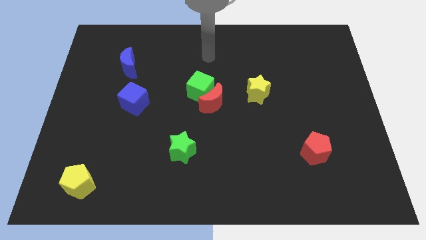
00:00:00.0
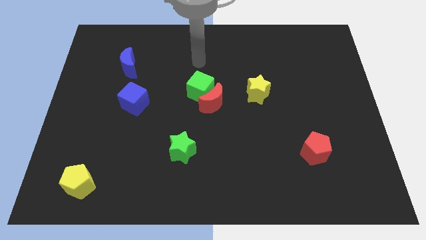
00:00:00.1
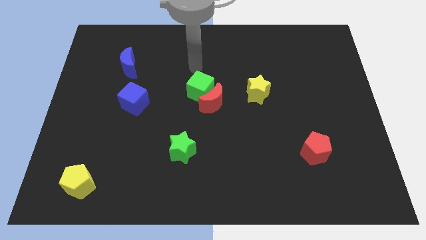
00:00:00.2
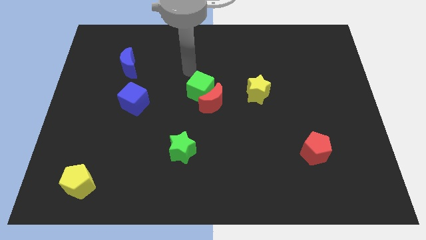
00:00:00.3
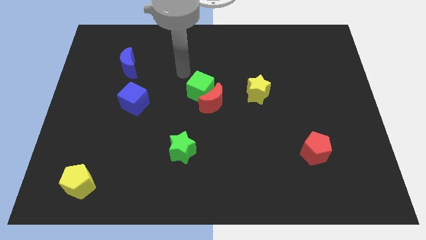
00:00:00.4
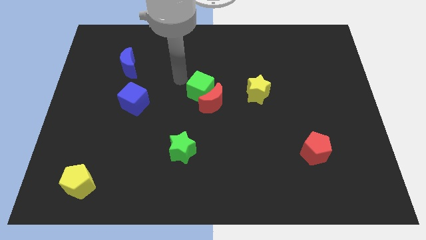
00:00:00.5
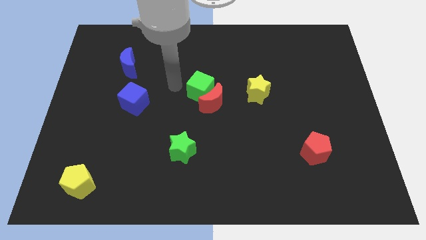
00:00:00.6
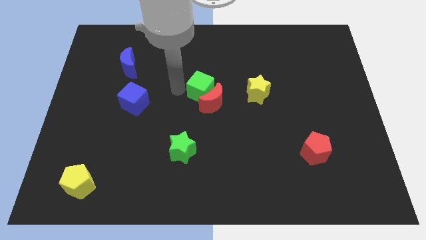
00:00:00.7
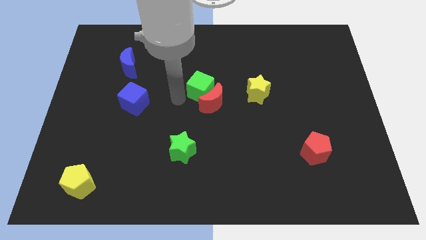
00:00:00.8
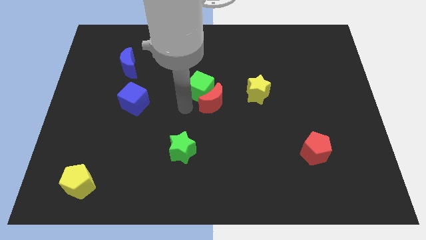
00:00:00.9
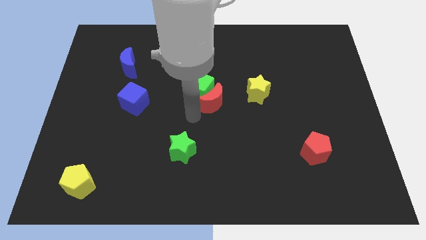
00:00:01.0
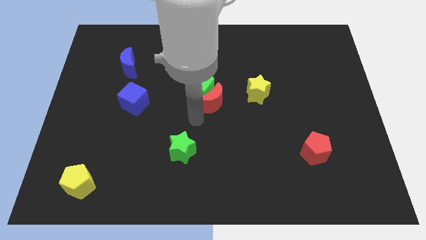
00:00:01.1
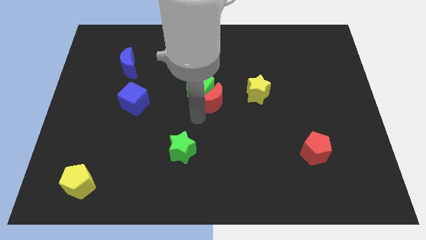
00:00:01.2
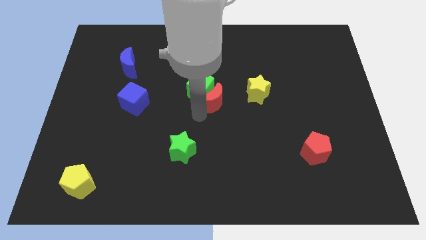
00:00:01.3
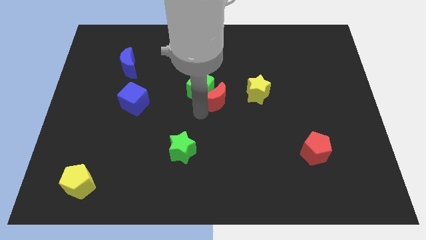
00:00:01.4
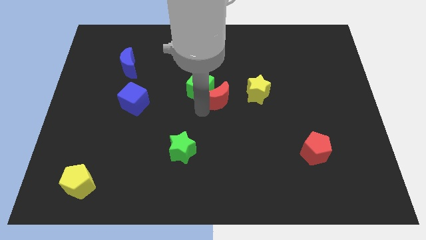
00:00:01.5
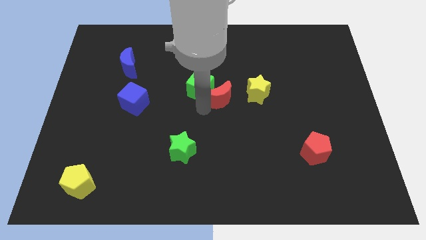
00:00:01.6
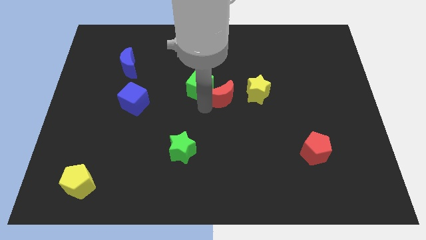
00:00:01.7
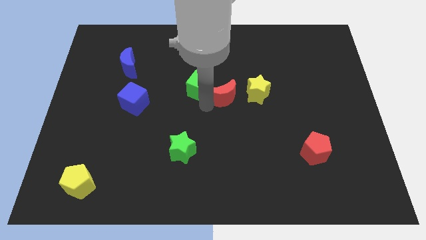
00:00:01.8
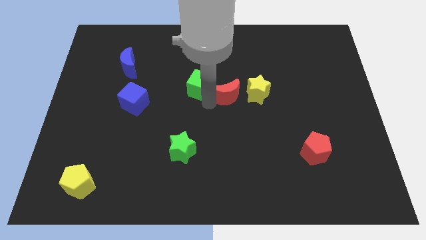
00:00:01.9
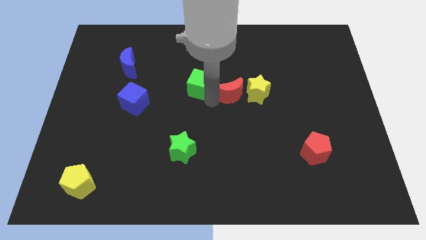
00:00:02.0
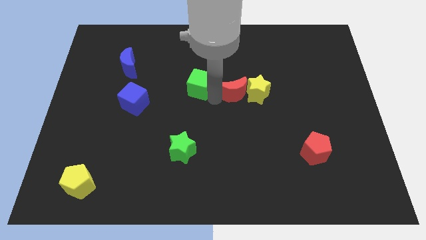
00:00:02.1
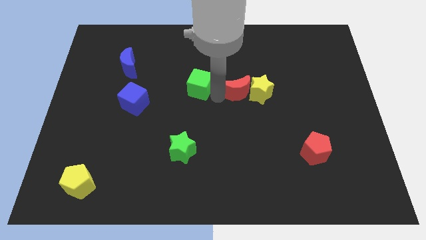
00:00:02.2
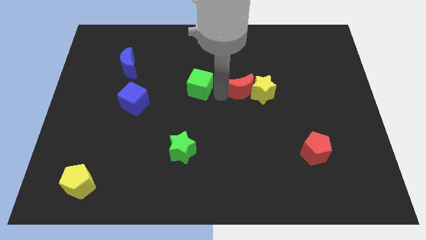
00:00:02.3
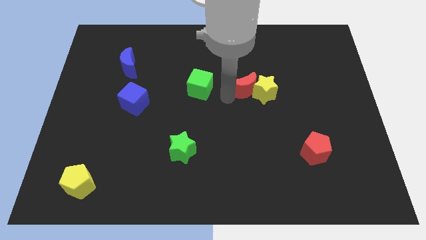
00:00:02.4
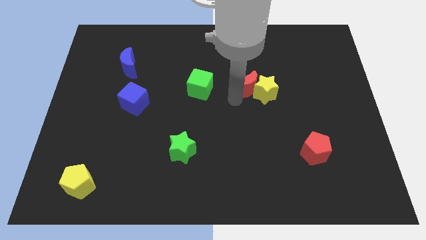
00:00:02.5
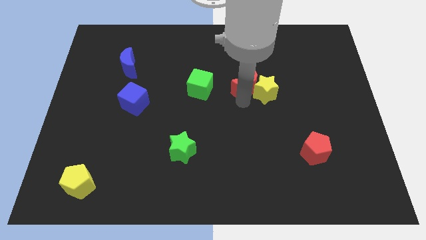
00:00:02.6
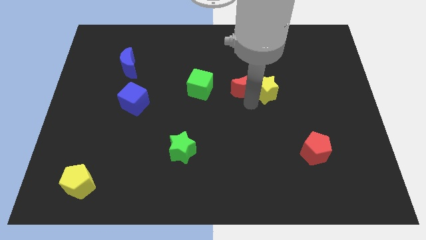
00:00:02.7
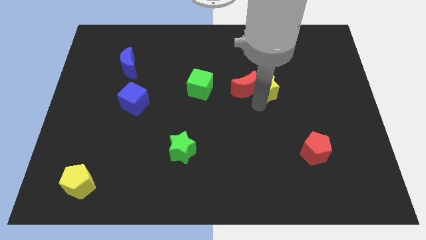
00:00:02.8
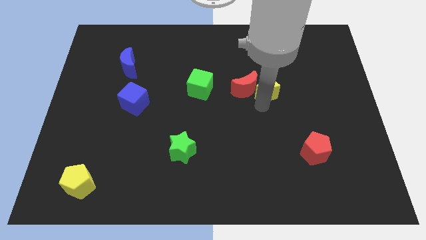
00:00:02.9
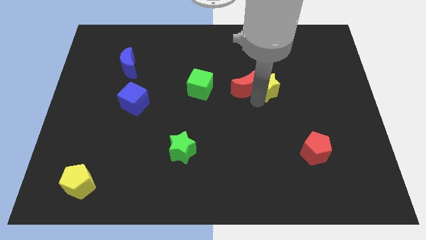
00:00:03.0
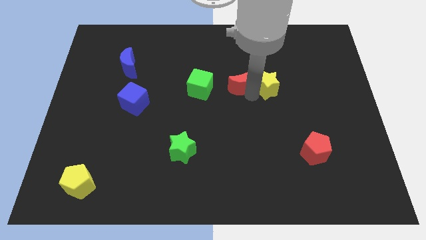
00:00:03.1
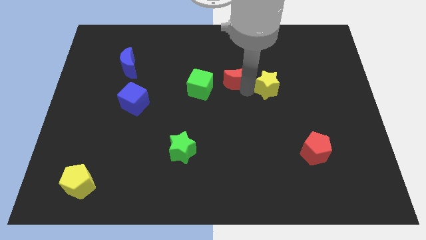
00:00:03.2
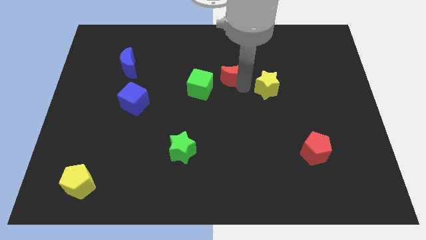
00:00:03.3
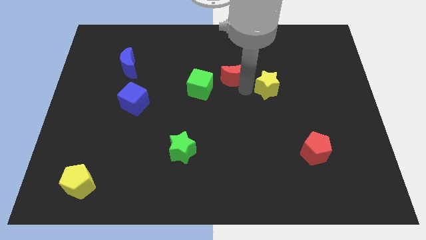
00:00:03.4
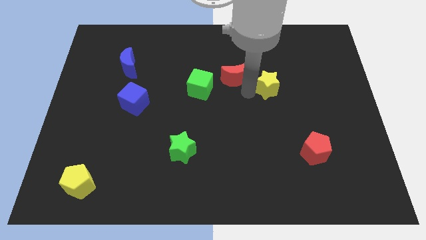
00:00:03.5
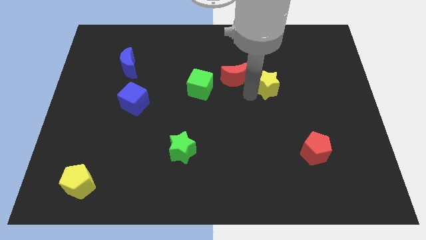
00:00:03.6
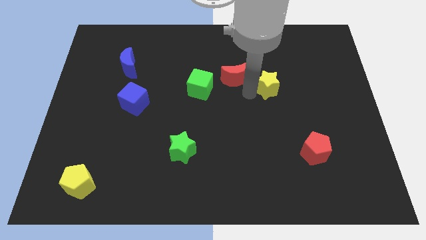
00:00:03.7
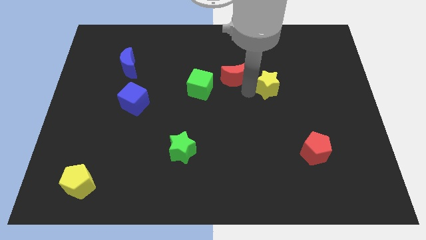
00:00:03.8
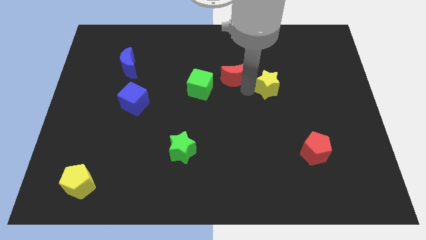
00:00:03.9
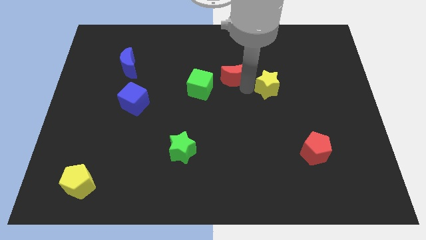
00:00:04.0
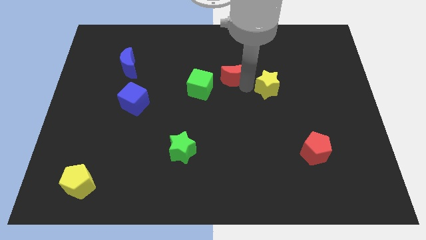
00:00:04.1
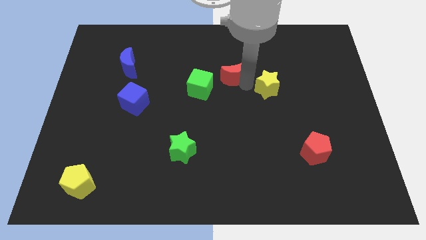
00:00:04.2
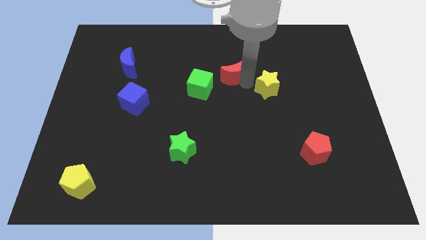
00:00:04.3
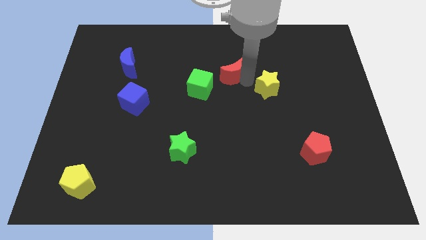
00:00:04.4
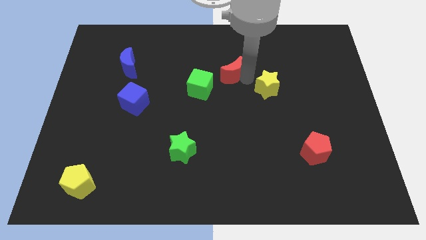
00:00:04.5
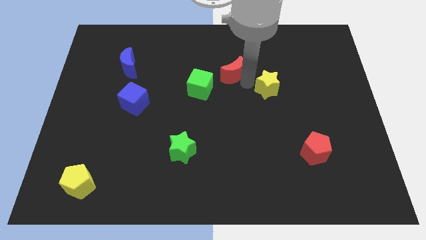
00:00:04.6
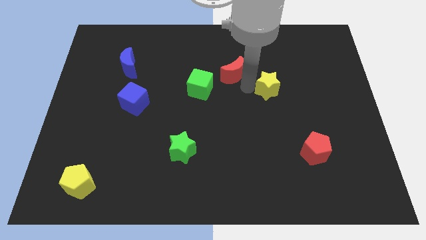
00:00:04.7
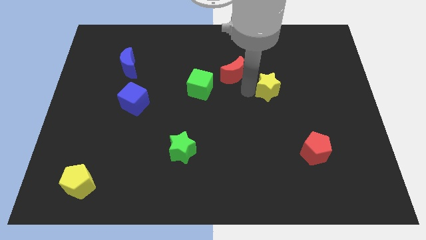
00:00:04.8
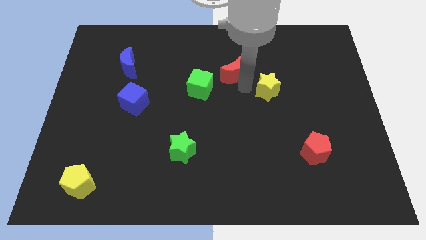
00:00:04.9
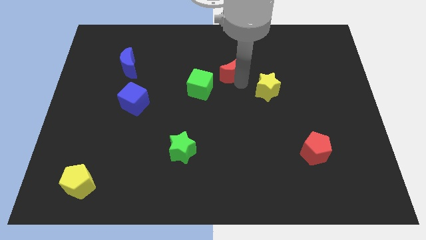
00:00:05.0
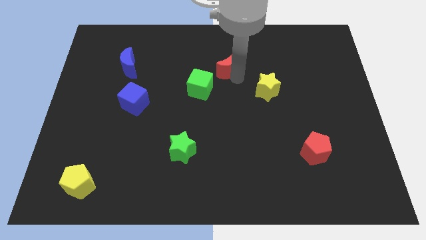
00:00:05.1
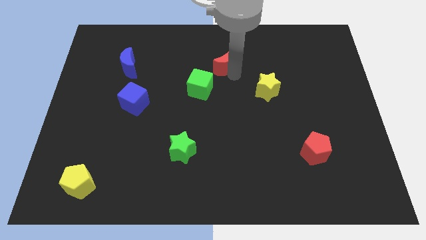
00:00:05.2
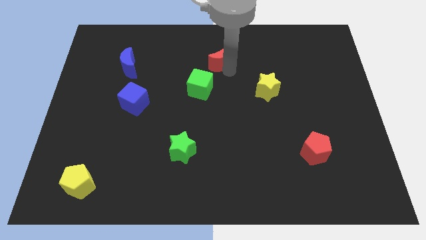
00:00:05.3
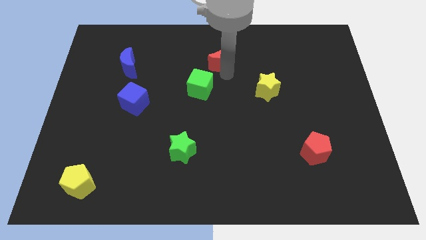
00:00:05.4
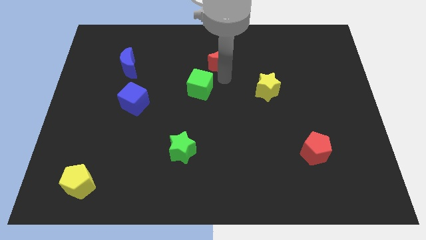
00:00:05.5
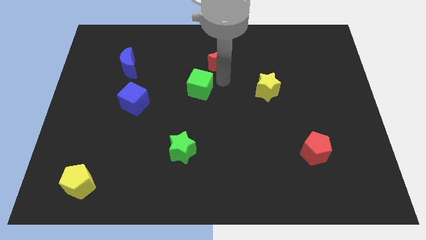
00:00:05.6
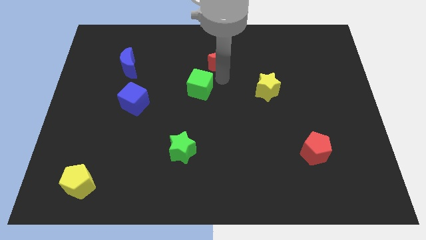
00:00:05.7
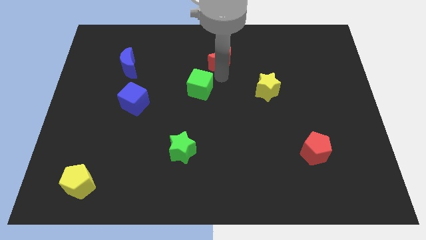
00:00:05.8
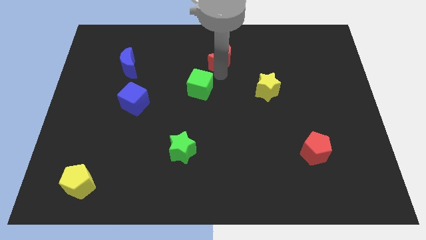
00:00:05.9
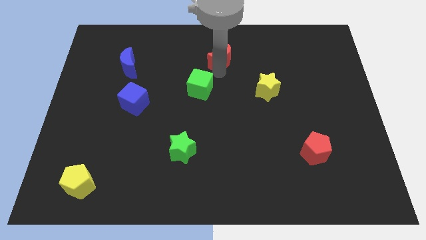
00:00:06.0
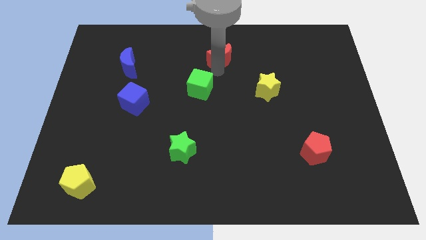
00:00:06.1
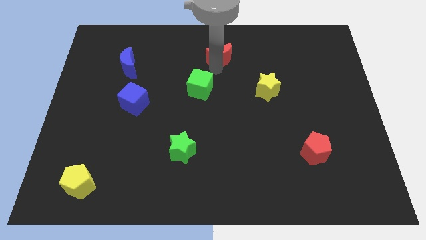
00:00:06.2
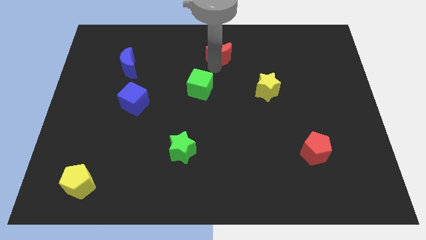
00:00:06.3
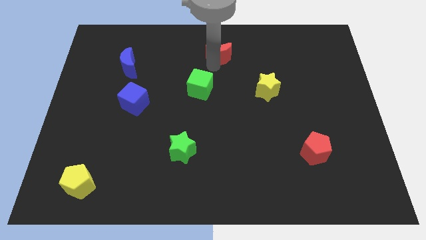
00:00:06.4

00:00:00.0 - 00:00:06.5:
push the red moon to the top side

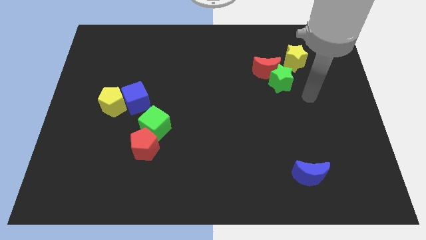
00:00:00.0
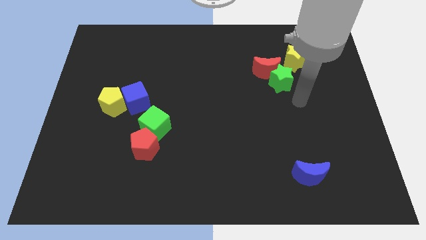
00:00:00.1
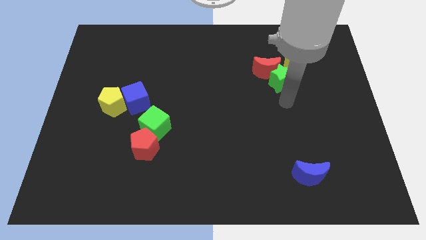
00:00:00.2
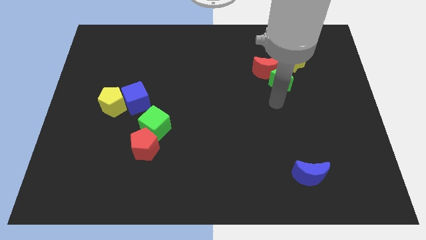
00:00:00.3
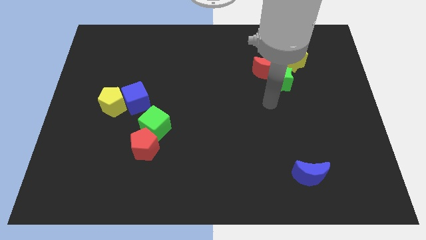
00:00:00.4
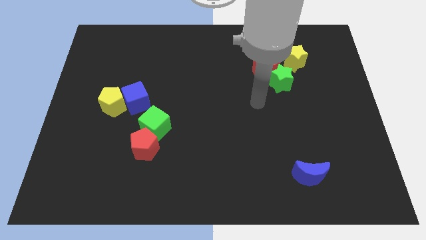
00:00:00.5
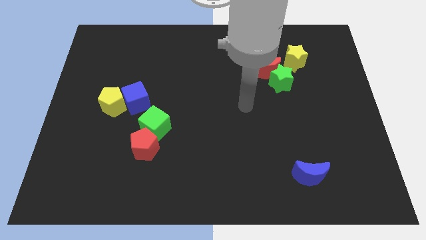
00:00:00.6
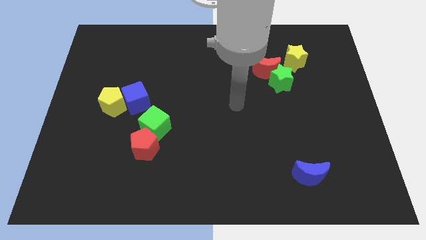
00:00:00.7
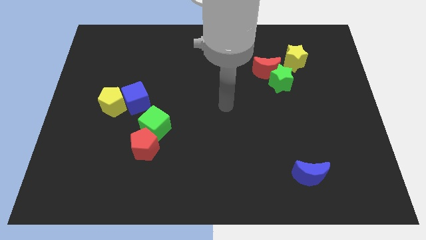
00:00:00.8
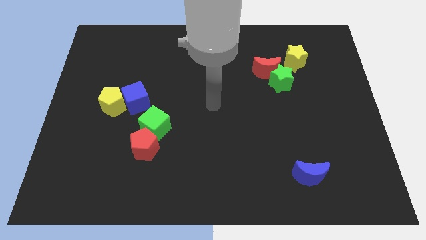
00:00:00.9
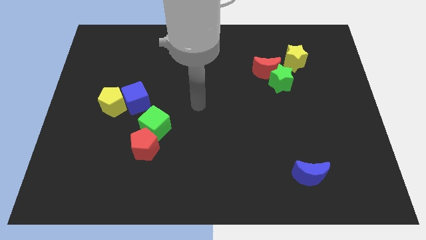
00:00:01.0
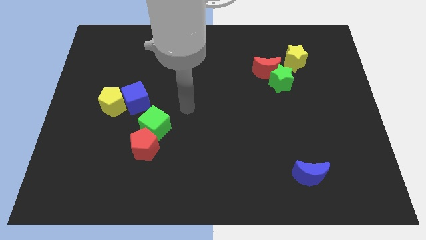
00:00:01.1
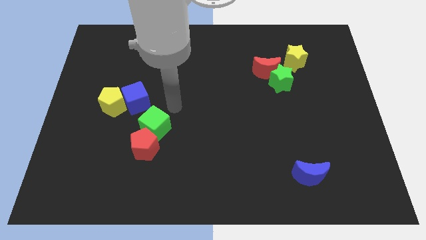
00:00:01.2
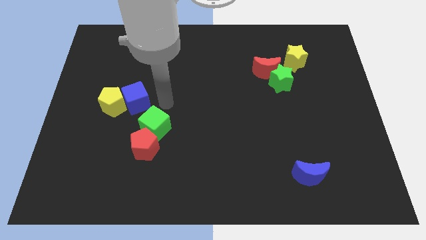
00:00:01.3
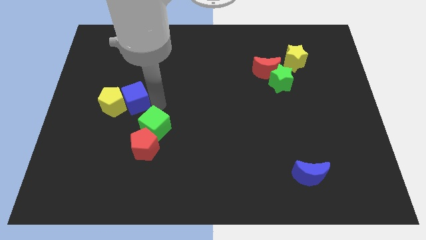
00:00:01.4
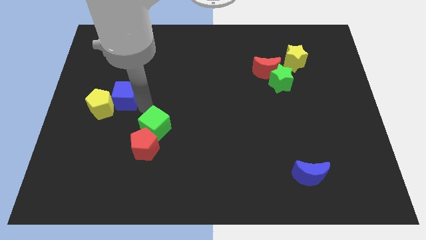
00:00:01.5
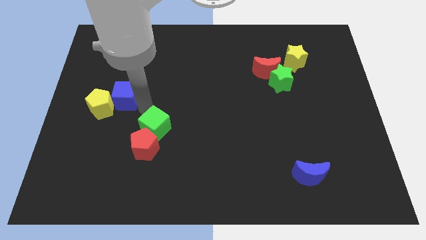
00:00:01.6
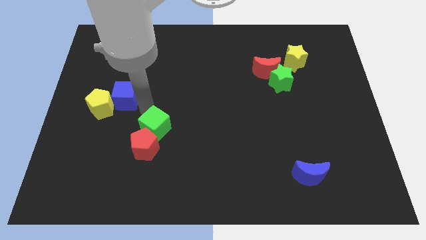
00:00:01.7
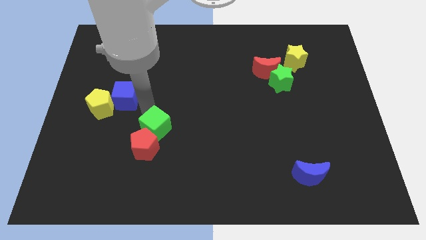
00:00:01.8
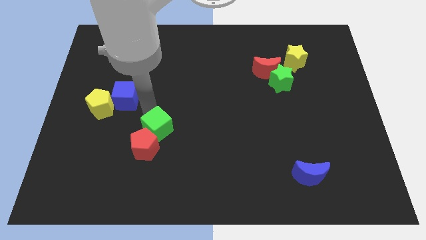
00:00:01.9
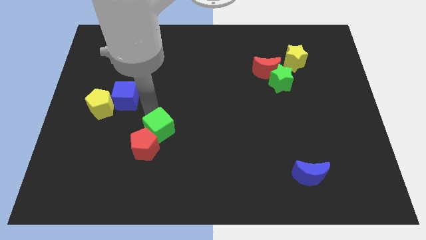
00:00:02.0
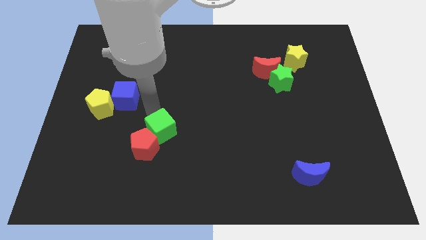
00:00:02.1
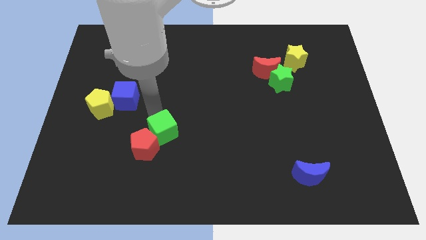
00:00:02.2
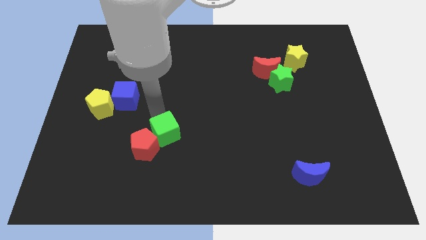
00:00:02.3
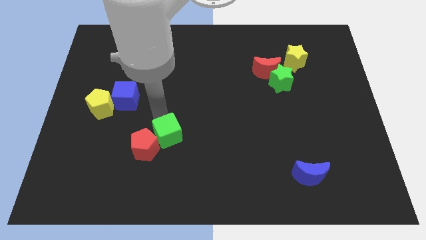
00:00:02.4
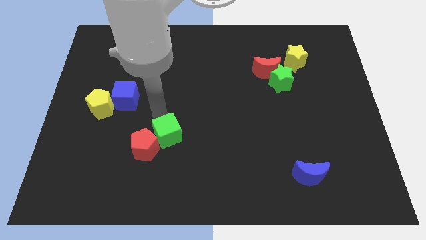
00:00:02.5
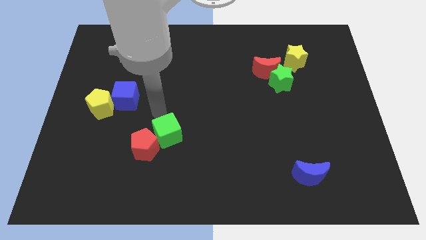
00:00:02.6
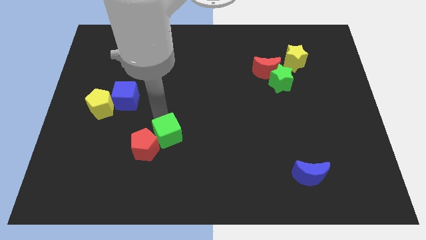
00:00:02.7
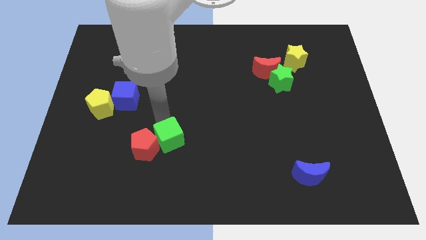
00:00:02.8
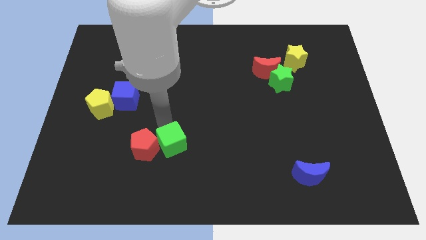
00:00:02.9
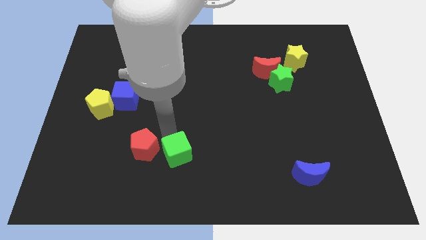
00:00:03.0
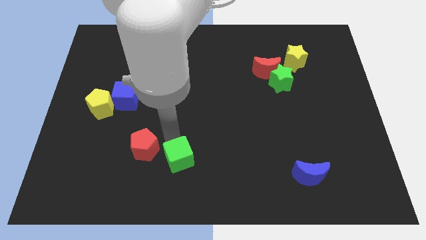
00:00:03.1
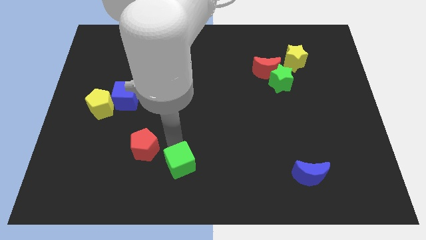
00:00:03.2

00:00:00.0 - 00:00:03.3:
slide the green cube to the bottom
